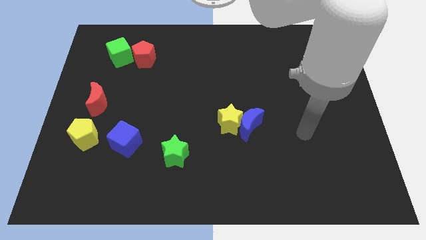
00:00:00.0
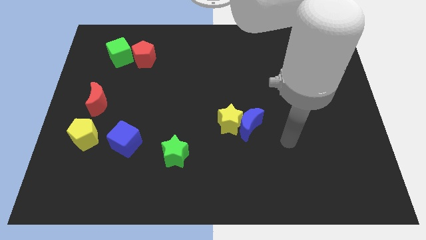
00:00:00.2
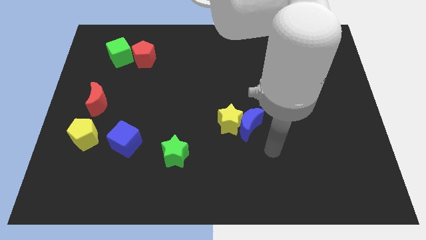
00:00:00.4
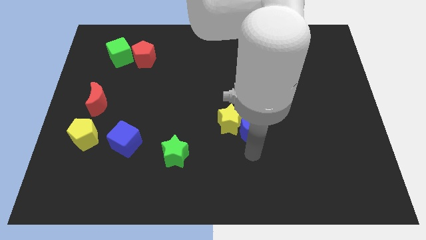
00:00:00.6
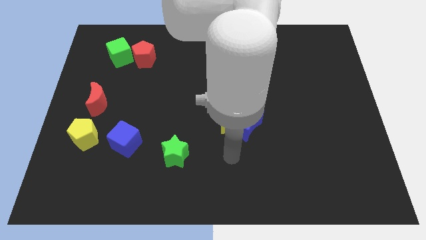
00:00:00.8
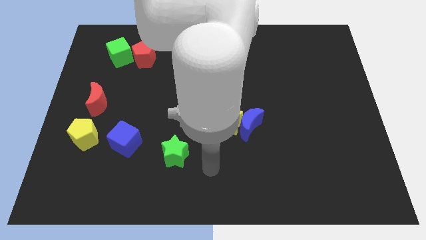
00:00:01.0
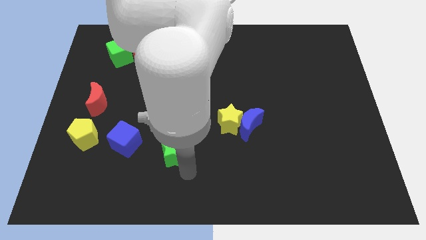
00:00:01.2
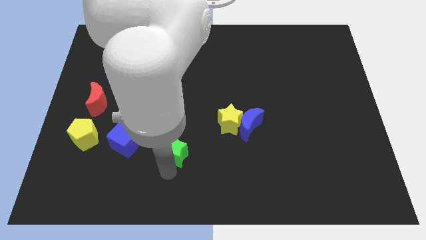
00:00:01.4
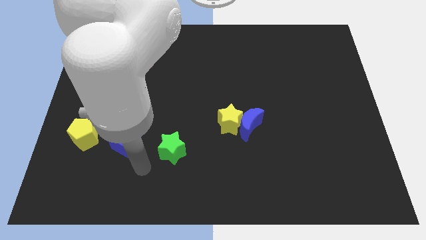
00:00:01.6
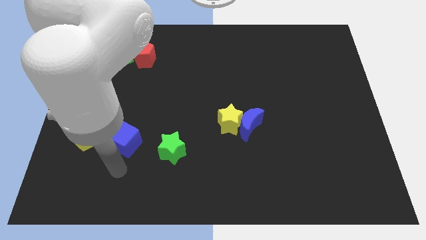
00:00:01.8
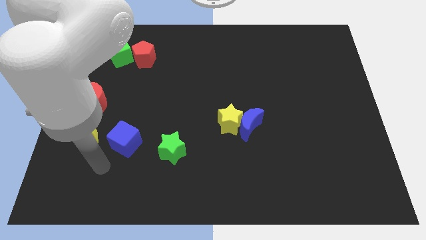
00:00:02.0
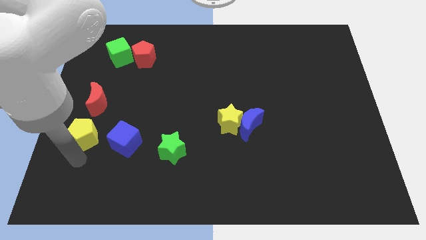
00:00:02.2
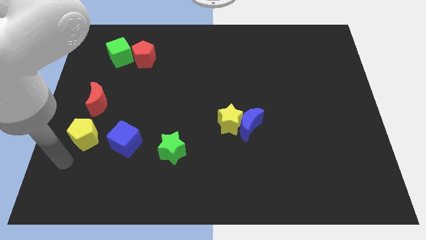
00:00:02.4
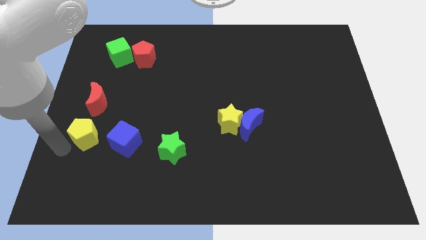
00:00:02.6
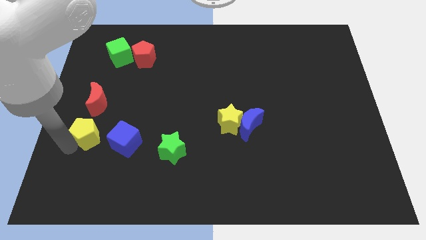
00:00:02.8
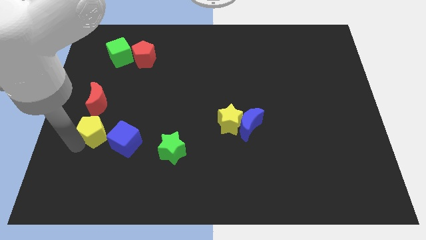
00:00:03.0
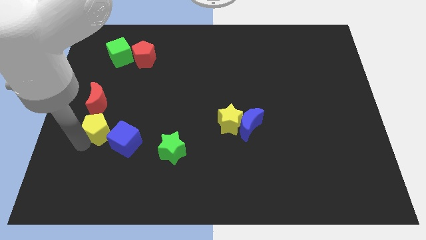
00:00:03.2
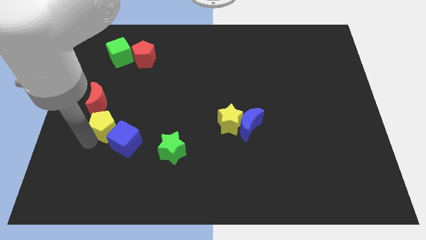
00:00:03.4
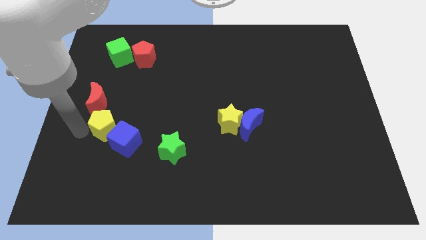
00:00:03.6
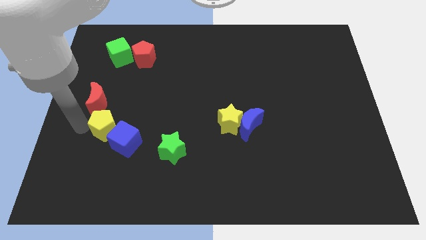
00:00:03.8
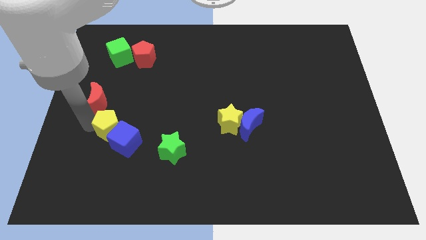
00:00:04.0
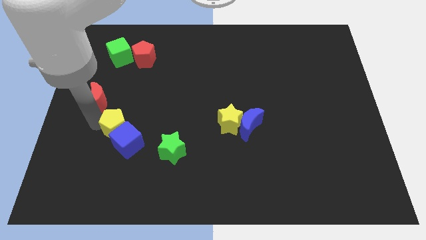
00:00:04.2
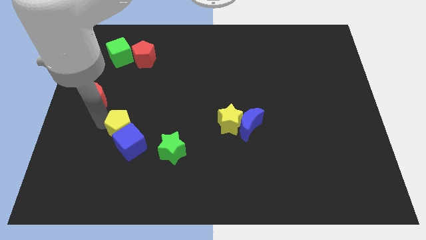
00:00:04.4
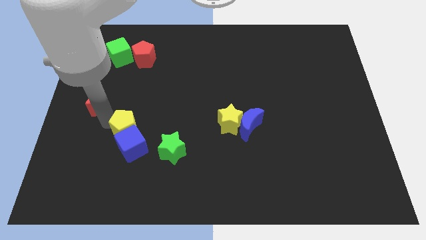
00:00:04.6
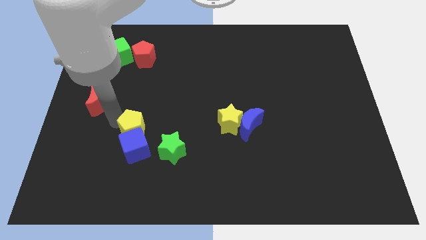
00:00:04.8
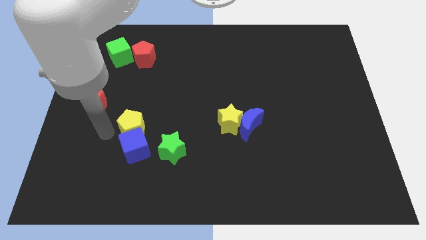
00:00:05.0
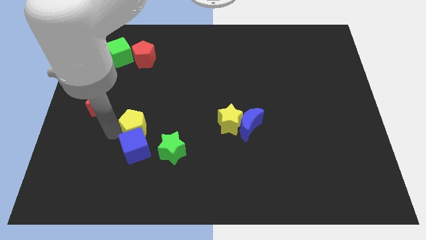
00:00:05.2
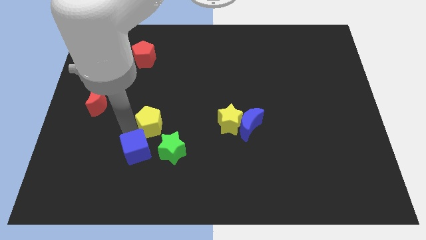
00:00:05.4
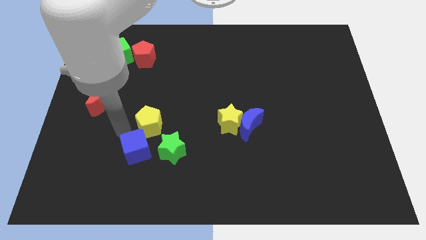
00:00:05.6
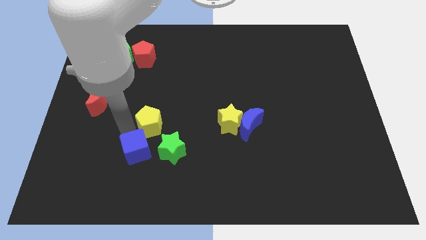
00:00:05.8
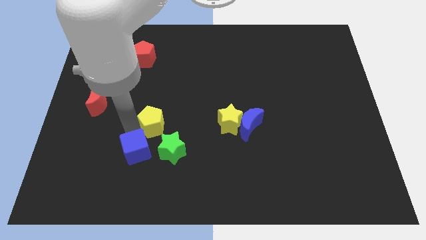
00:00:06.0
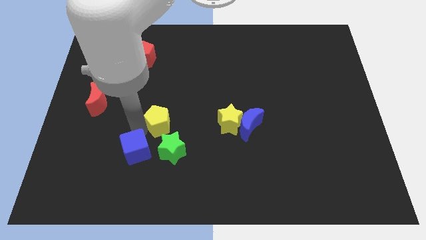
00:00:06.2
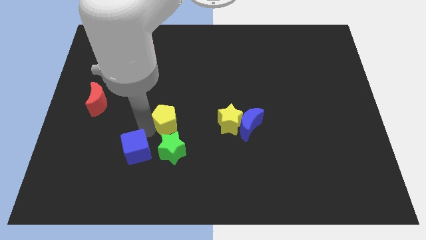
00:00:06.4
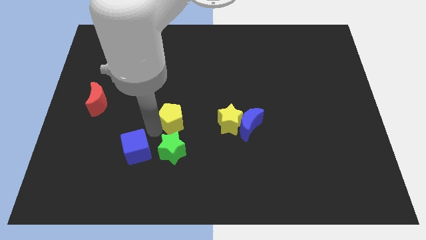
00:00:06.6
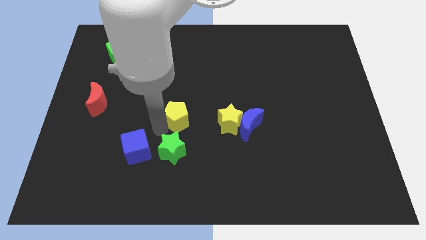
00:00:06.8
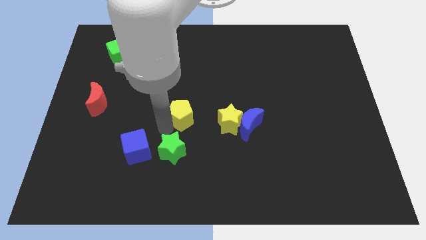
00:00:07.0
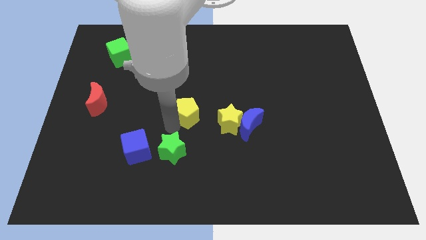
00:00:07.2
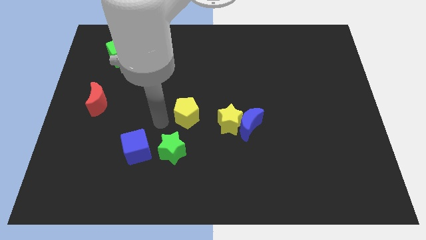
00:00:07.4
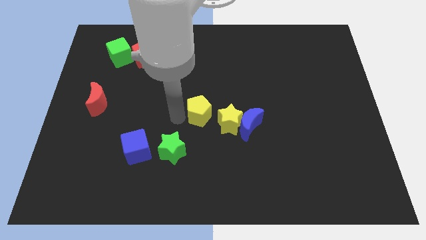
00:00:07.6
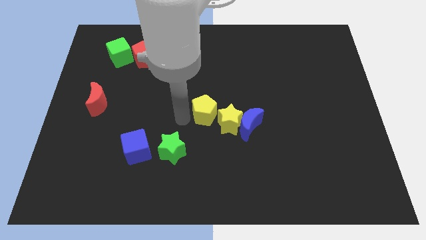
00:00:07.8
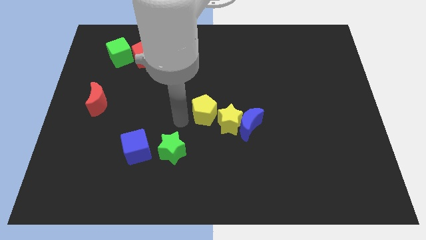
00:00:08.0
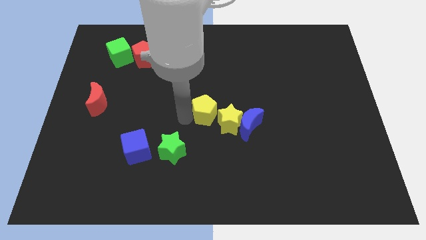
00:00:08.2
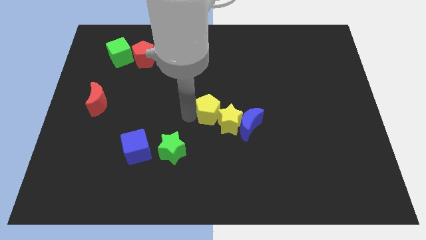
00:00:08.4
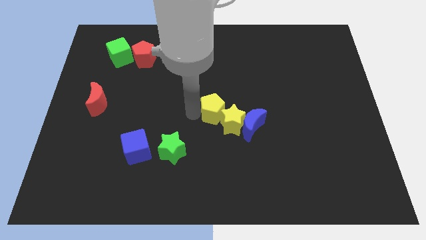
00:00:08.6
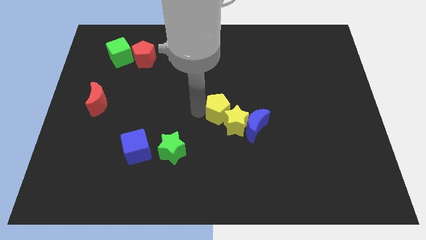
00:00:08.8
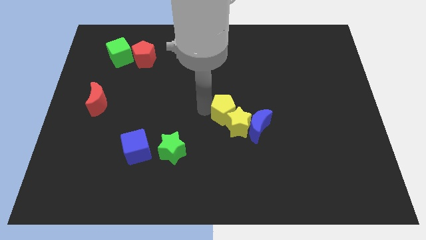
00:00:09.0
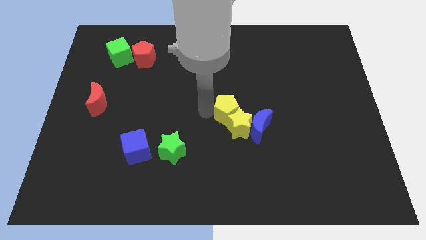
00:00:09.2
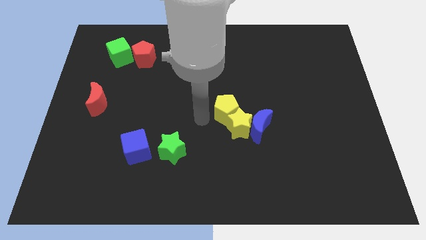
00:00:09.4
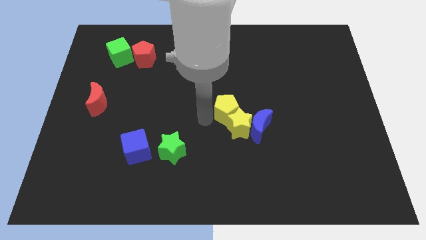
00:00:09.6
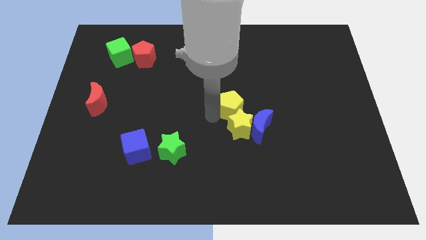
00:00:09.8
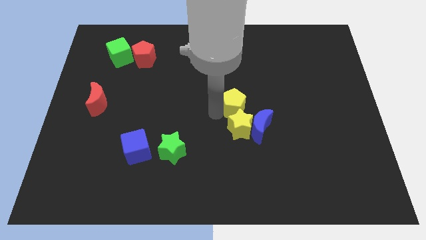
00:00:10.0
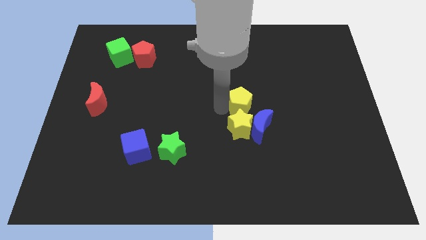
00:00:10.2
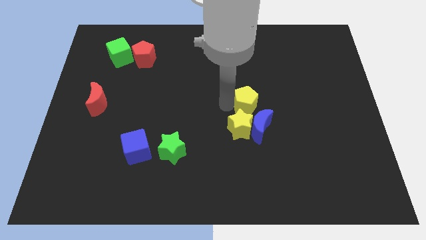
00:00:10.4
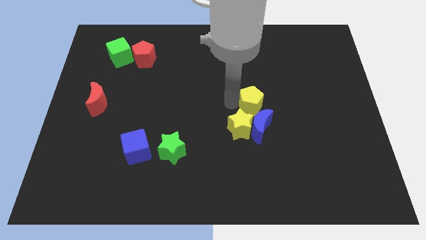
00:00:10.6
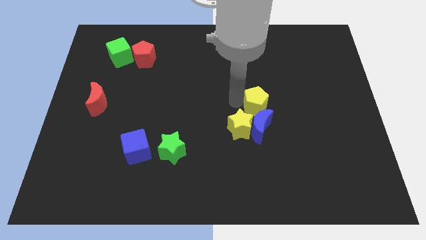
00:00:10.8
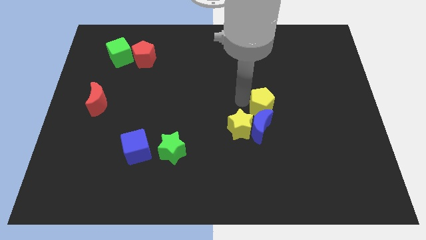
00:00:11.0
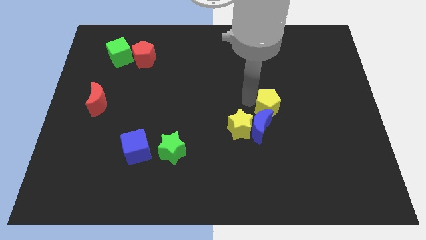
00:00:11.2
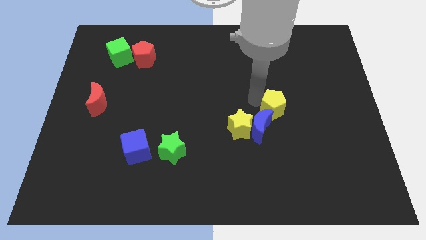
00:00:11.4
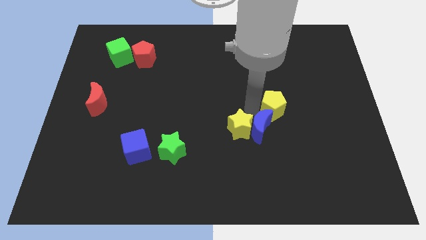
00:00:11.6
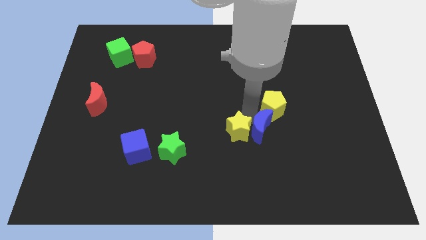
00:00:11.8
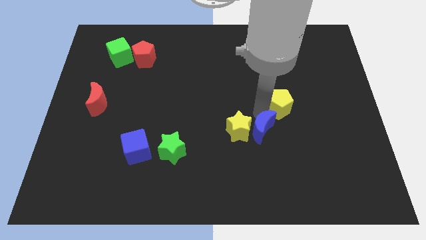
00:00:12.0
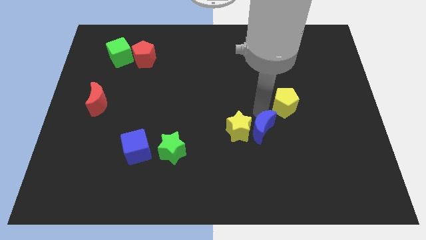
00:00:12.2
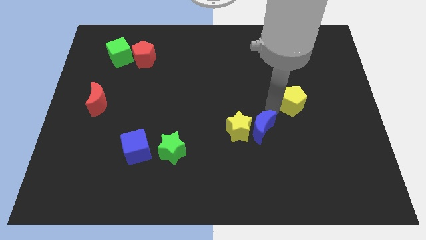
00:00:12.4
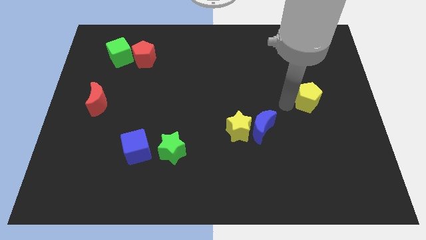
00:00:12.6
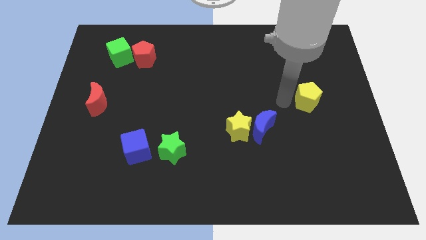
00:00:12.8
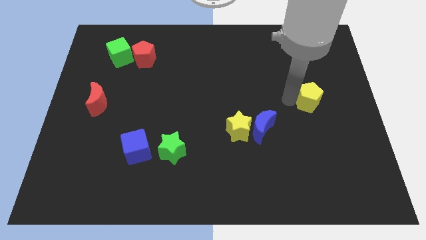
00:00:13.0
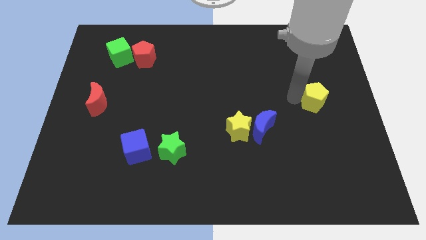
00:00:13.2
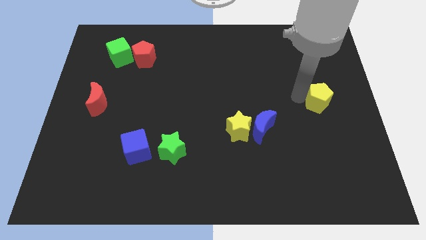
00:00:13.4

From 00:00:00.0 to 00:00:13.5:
put the yellow pentagon to the right side of the board

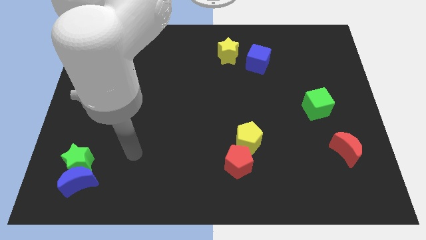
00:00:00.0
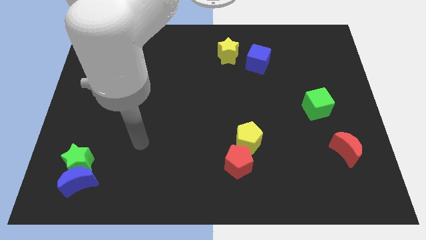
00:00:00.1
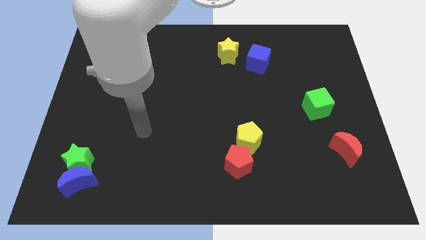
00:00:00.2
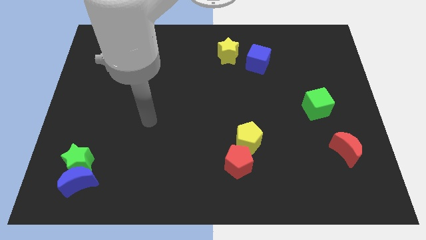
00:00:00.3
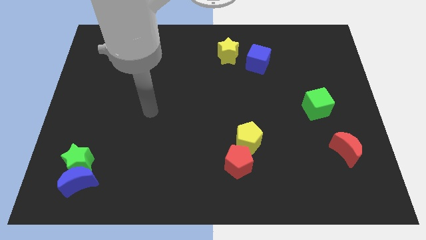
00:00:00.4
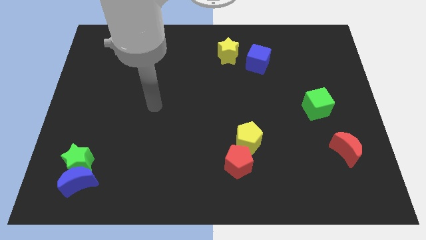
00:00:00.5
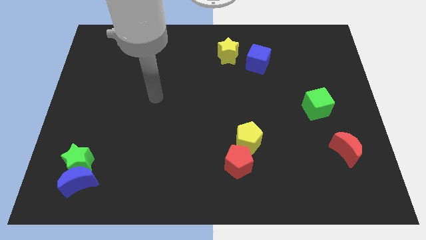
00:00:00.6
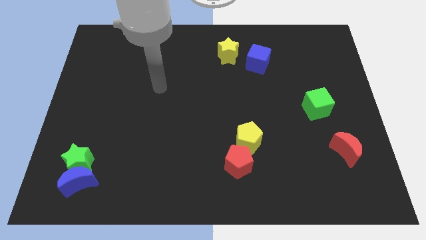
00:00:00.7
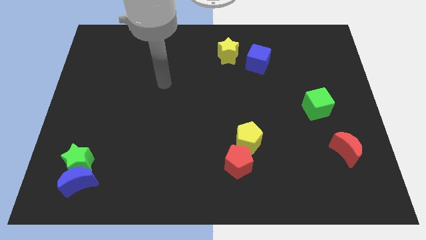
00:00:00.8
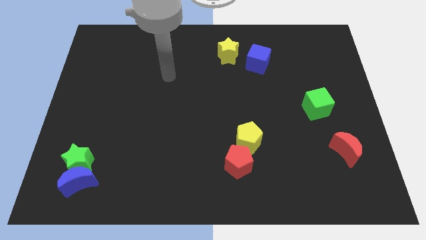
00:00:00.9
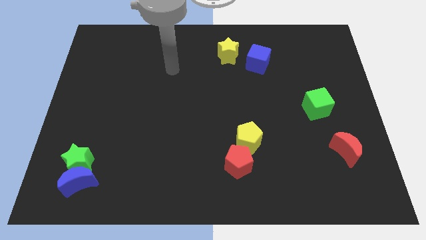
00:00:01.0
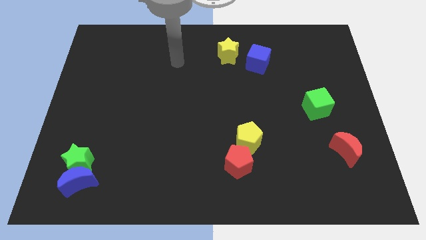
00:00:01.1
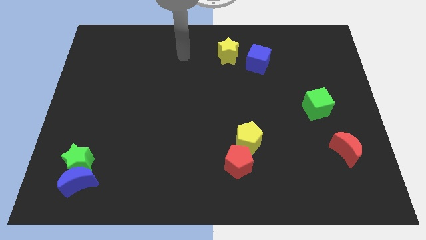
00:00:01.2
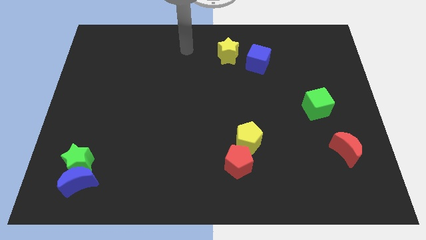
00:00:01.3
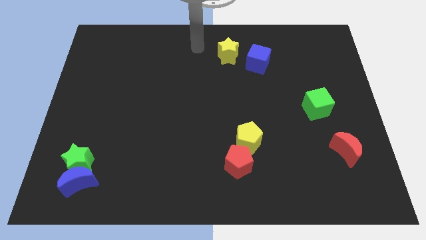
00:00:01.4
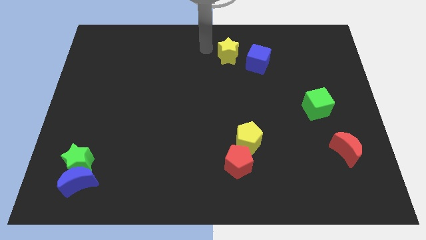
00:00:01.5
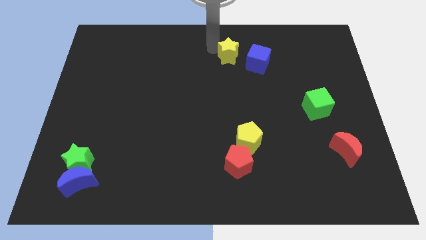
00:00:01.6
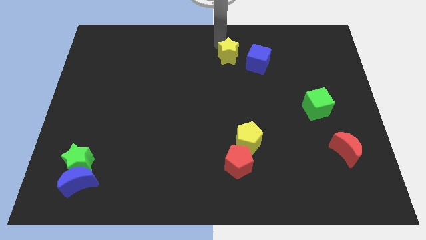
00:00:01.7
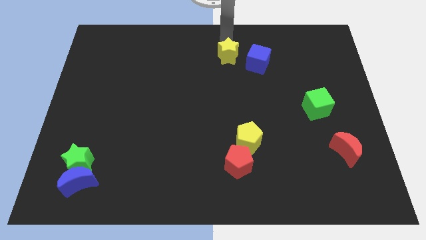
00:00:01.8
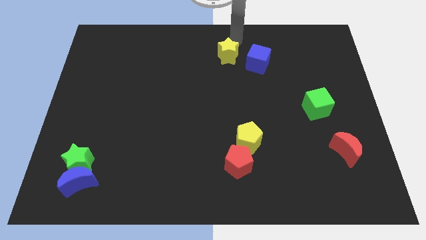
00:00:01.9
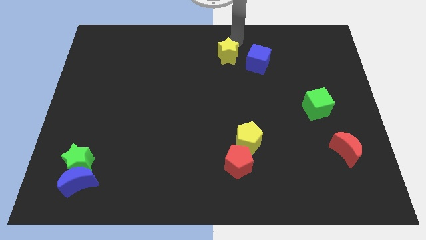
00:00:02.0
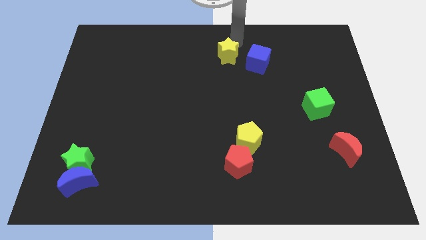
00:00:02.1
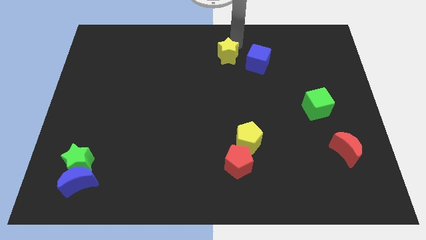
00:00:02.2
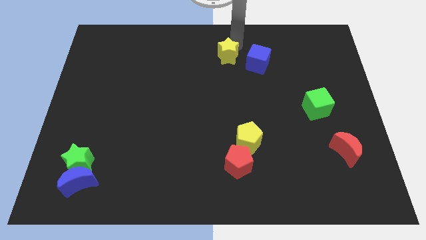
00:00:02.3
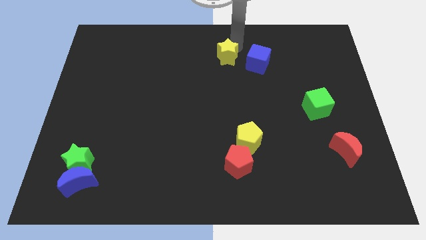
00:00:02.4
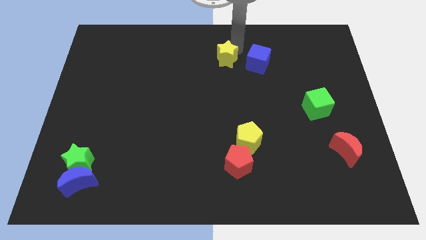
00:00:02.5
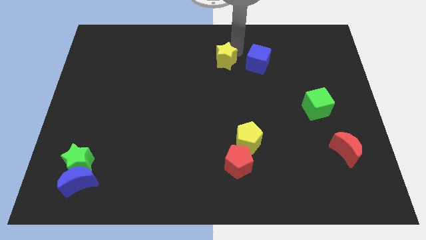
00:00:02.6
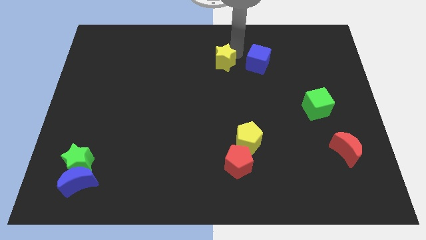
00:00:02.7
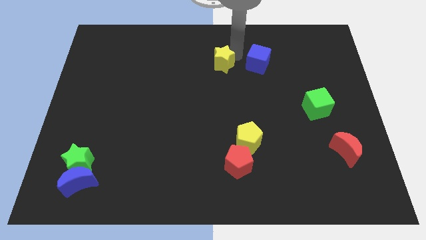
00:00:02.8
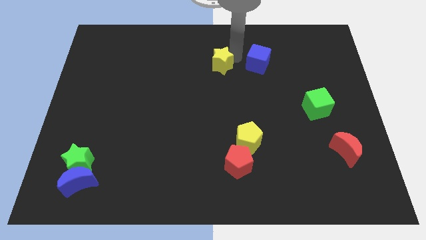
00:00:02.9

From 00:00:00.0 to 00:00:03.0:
move the yellow star to the center of the board
